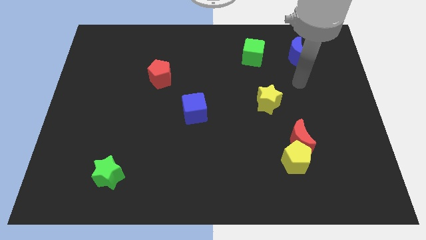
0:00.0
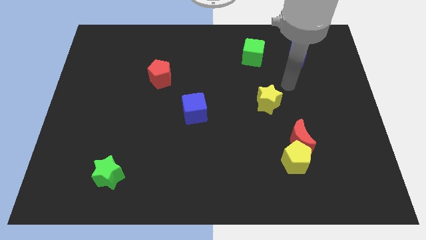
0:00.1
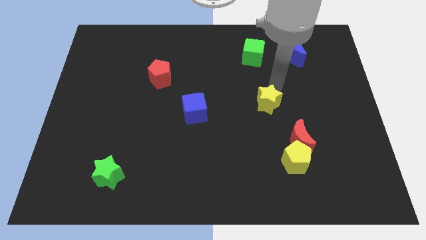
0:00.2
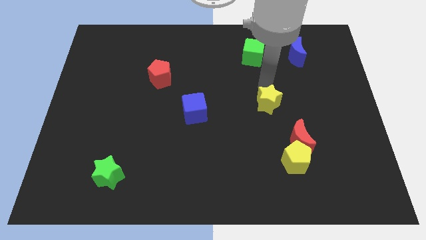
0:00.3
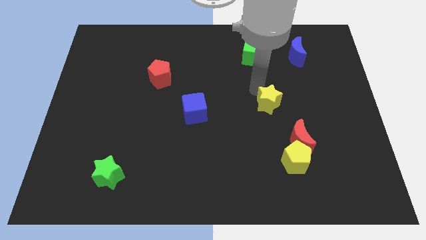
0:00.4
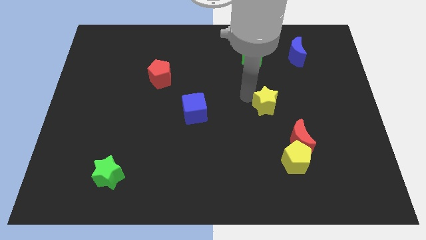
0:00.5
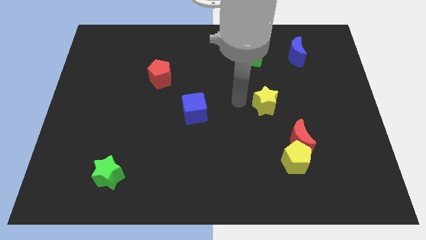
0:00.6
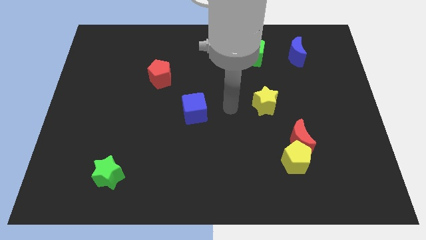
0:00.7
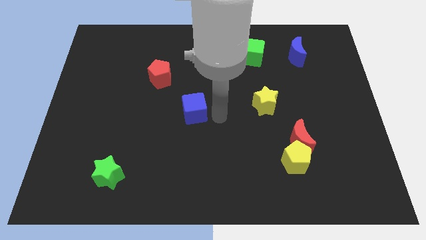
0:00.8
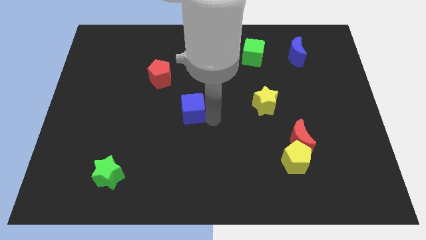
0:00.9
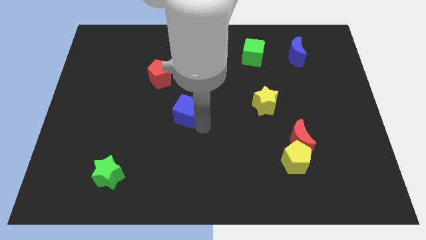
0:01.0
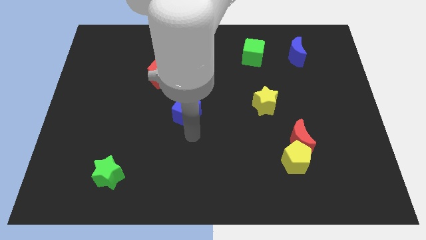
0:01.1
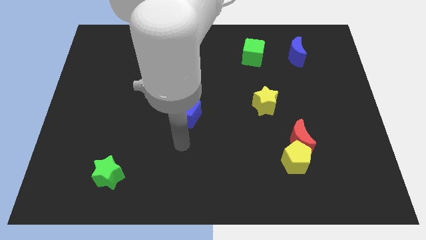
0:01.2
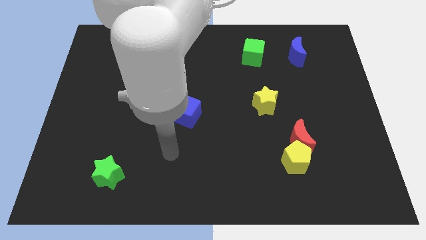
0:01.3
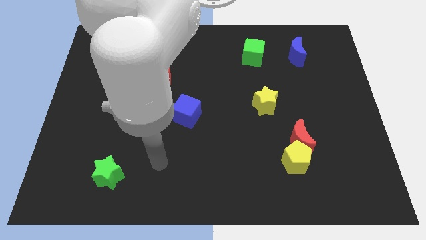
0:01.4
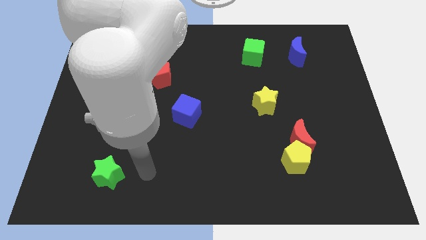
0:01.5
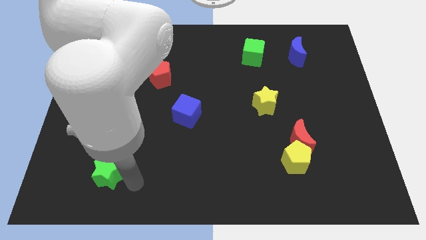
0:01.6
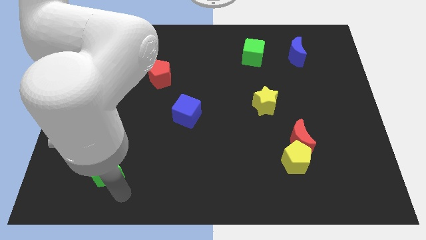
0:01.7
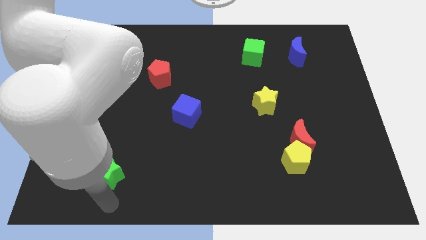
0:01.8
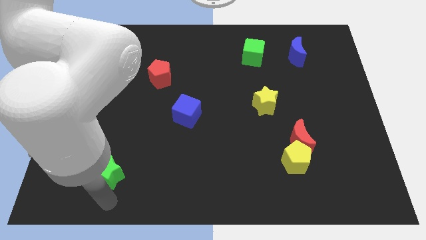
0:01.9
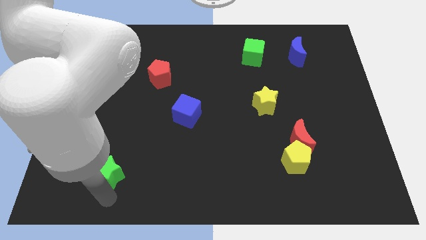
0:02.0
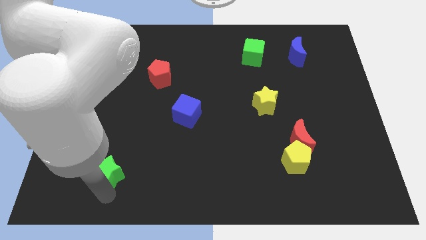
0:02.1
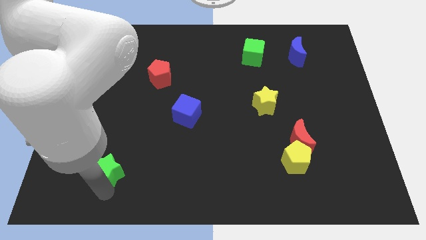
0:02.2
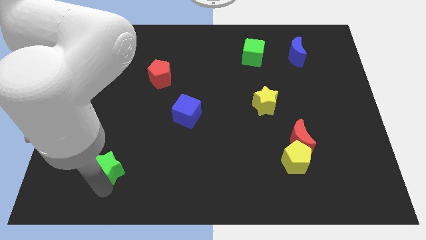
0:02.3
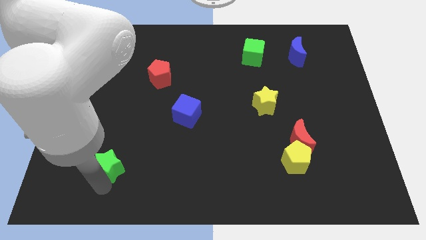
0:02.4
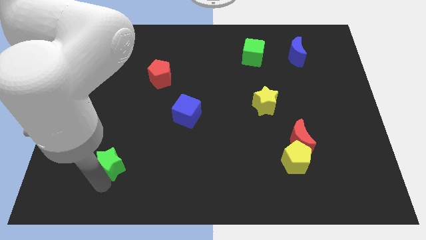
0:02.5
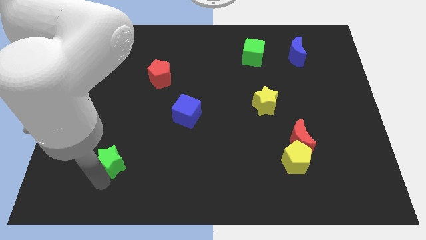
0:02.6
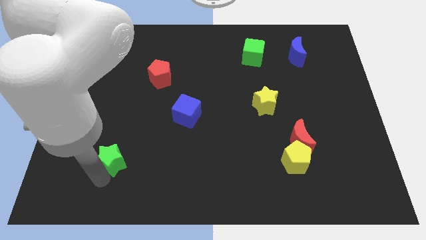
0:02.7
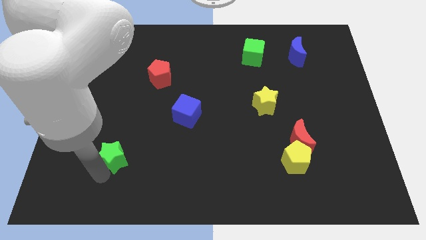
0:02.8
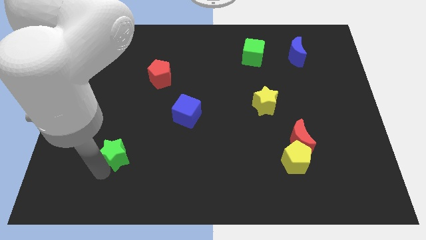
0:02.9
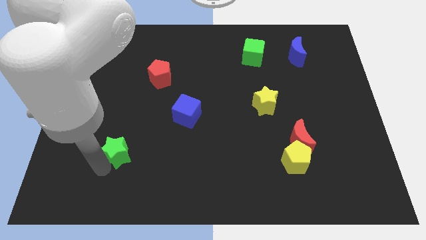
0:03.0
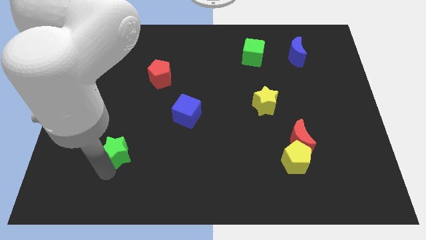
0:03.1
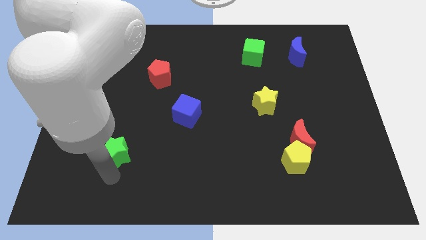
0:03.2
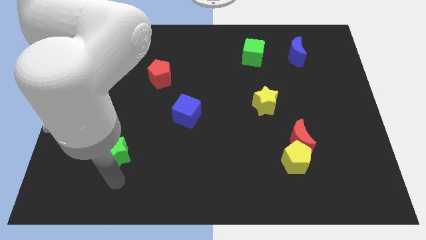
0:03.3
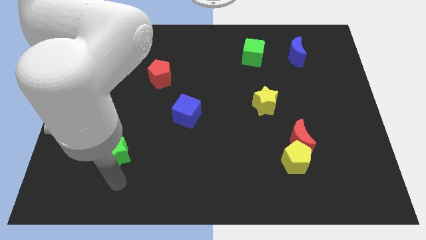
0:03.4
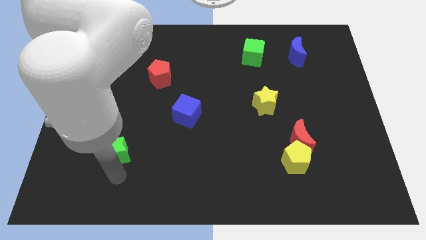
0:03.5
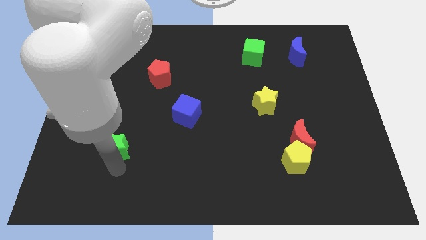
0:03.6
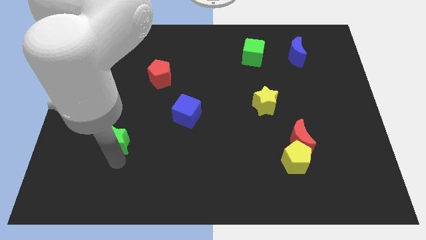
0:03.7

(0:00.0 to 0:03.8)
move the green star somewhat up

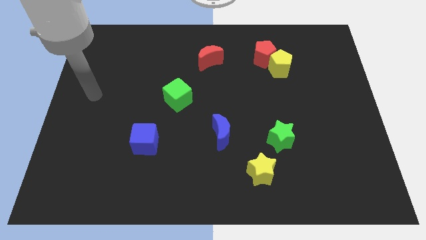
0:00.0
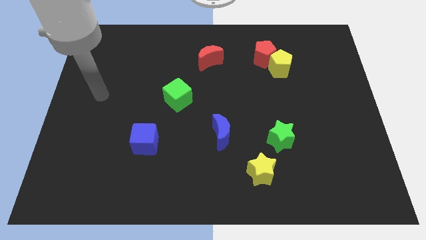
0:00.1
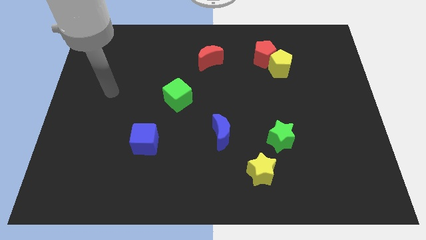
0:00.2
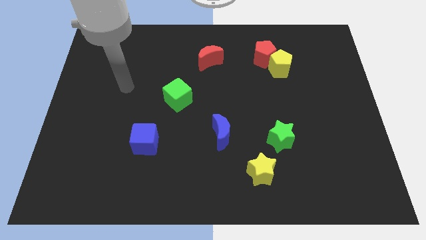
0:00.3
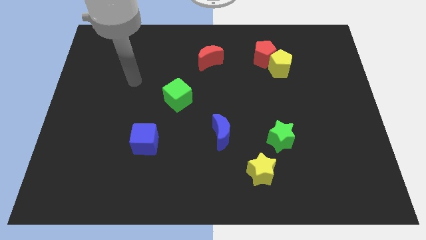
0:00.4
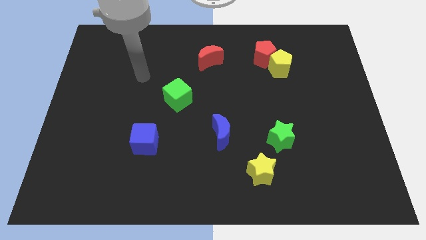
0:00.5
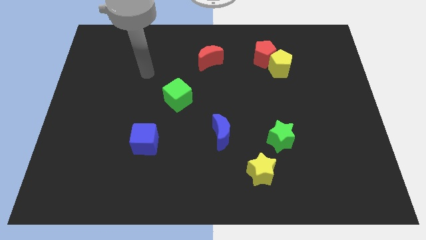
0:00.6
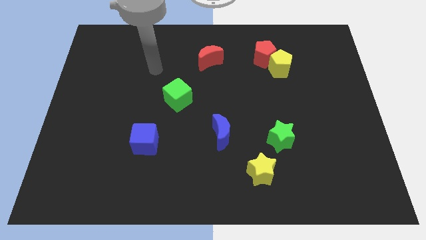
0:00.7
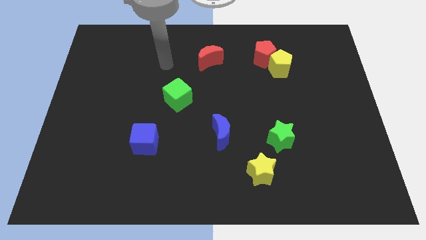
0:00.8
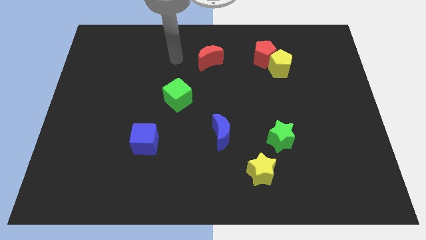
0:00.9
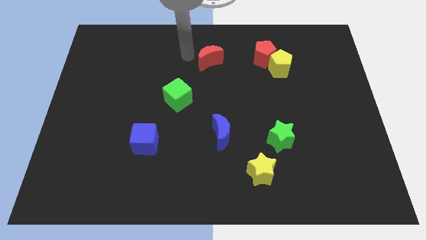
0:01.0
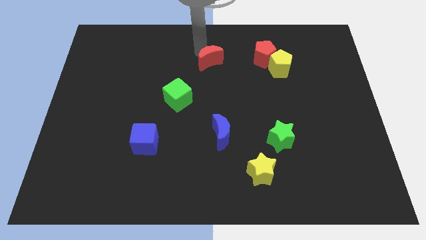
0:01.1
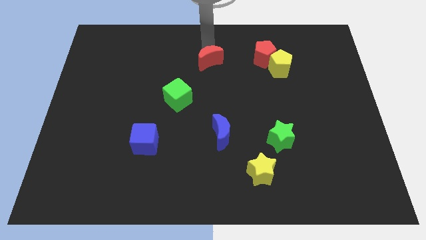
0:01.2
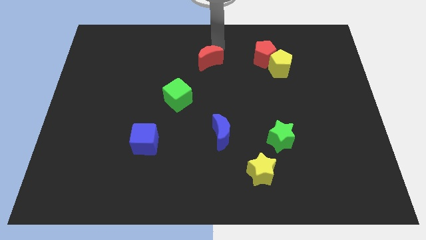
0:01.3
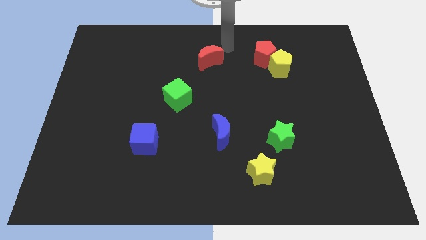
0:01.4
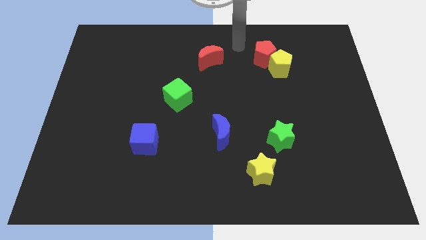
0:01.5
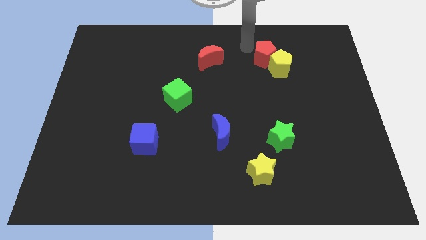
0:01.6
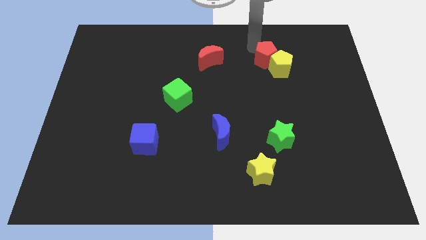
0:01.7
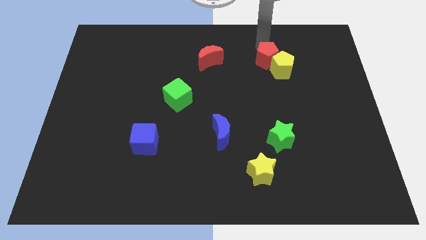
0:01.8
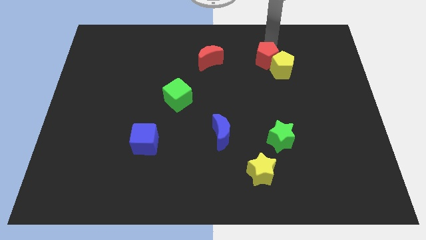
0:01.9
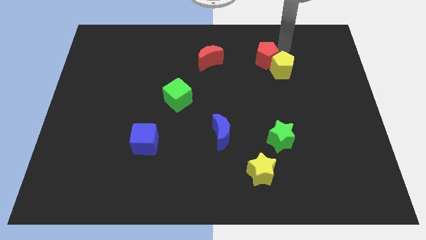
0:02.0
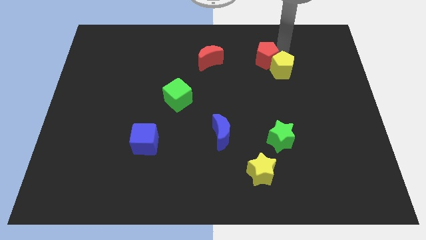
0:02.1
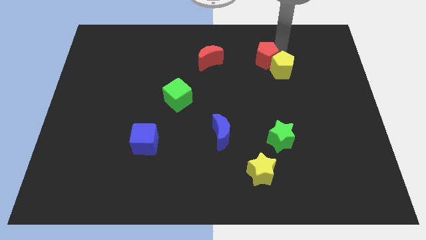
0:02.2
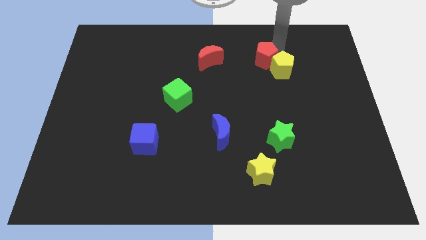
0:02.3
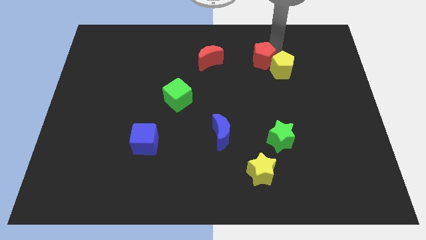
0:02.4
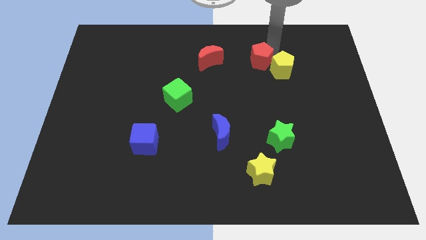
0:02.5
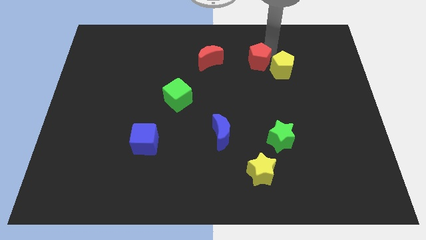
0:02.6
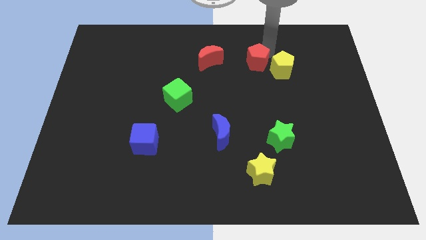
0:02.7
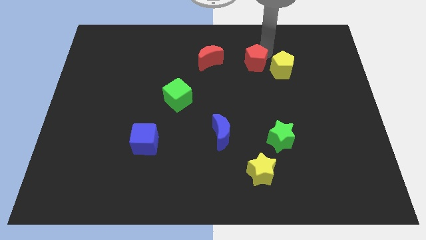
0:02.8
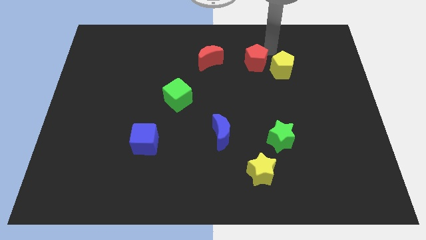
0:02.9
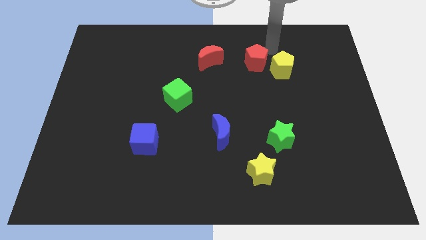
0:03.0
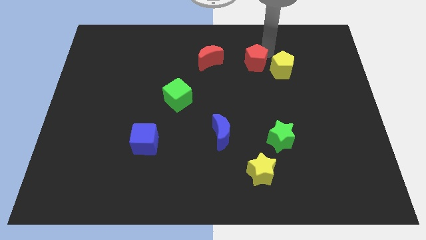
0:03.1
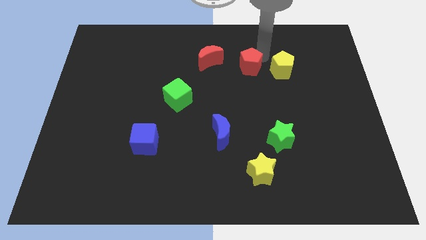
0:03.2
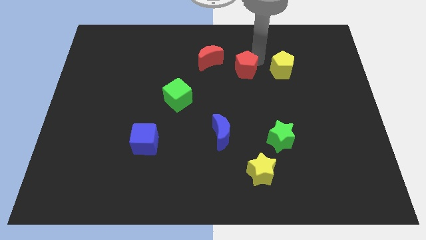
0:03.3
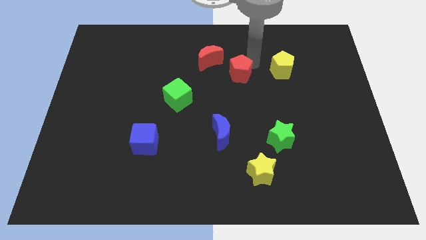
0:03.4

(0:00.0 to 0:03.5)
slightly push the red pentagon down and then left

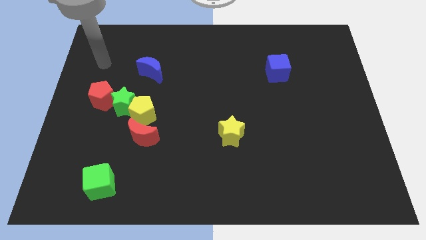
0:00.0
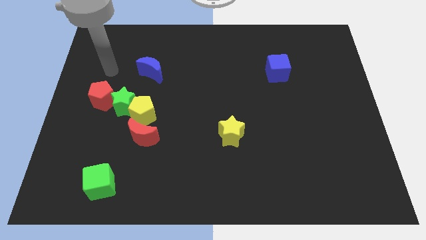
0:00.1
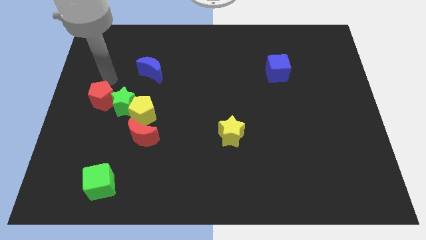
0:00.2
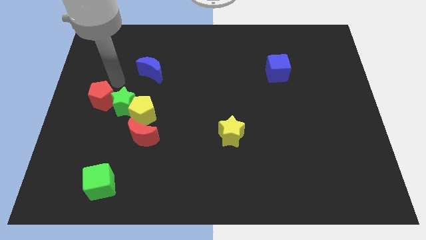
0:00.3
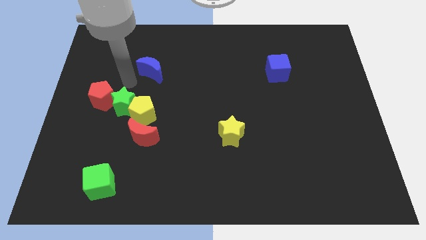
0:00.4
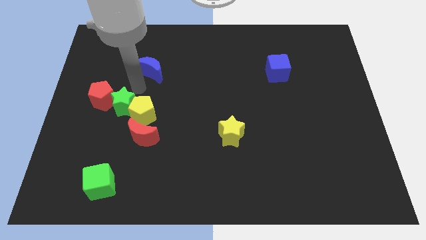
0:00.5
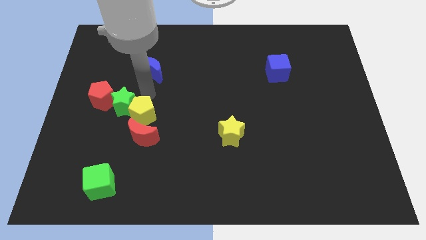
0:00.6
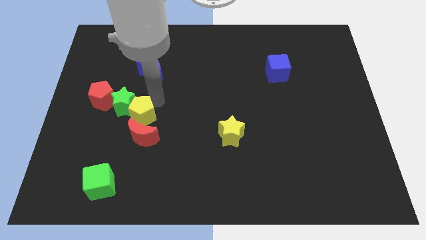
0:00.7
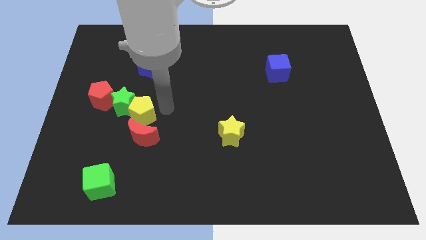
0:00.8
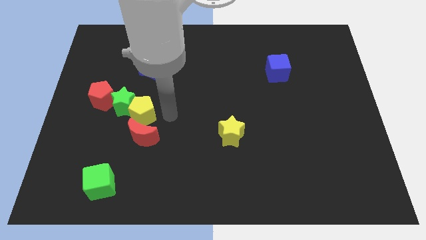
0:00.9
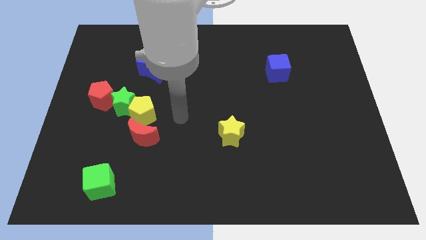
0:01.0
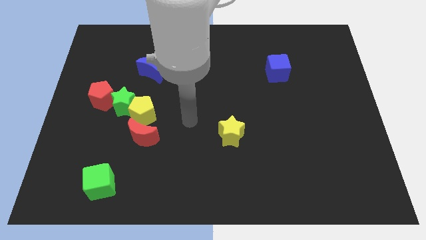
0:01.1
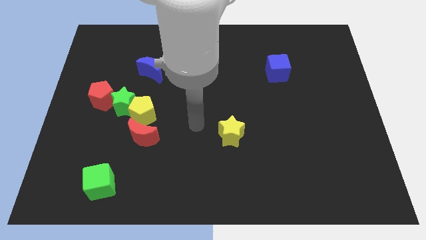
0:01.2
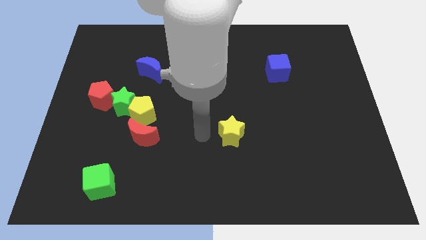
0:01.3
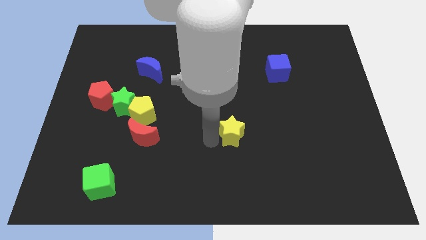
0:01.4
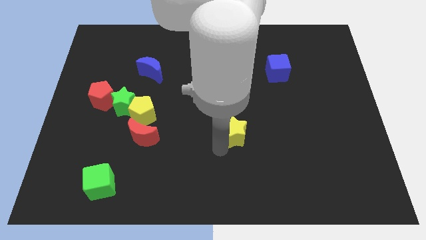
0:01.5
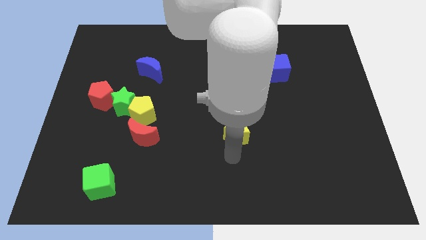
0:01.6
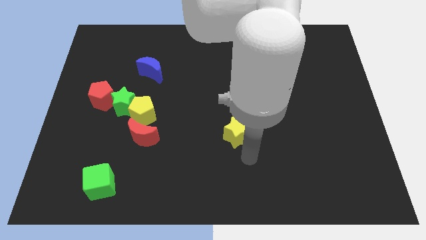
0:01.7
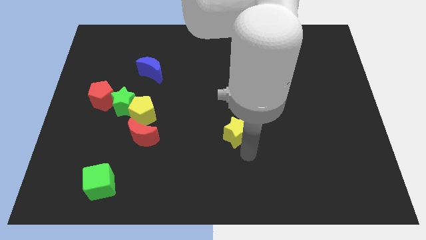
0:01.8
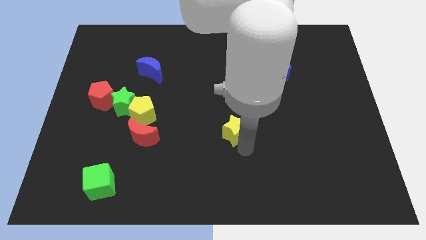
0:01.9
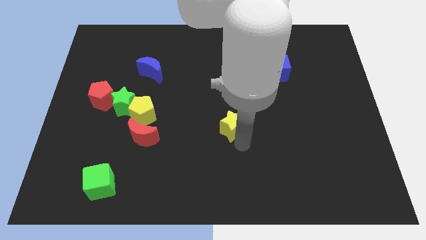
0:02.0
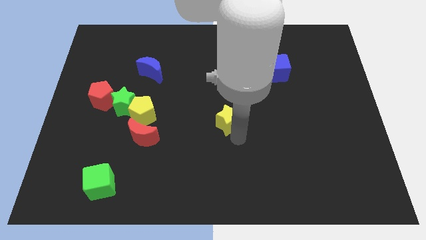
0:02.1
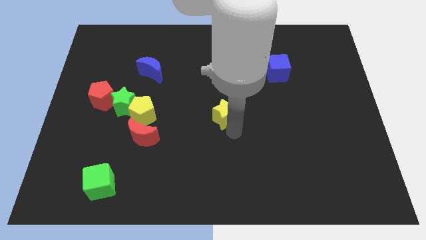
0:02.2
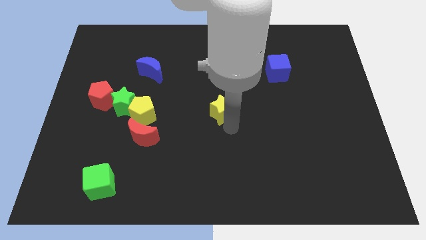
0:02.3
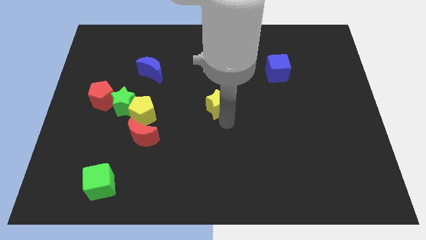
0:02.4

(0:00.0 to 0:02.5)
move the yellow star up somewhat
